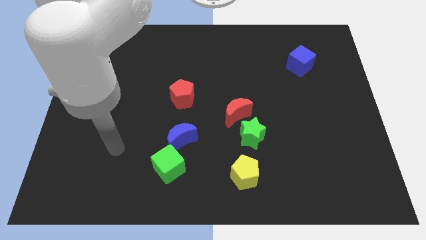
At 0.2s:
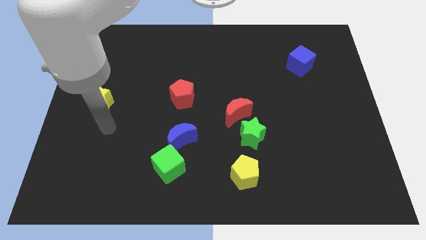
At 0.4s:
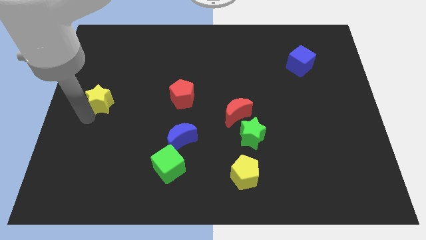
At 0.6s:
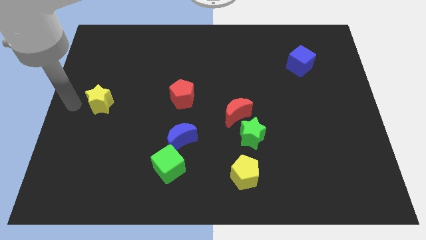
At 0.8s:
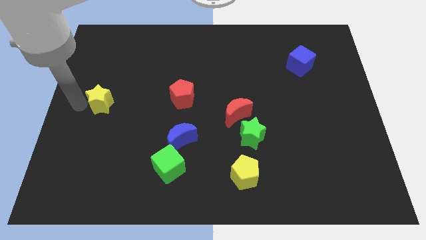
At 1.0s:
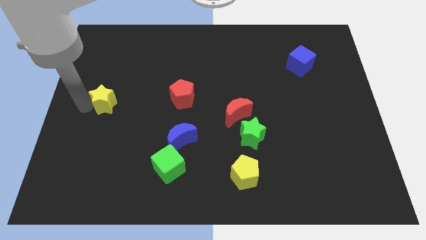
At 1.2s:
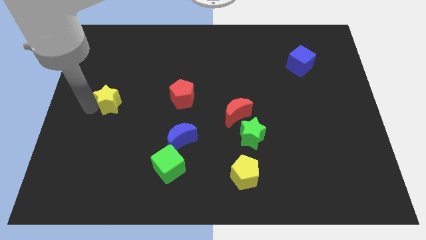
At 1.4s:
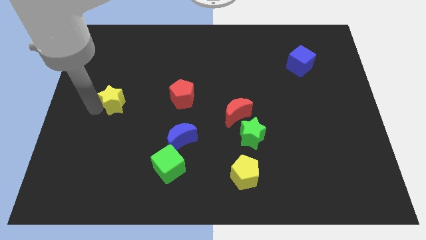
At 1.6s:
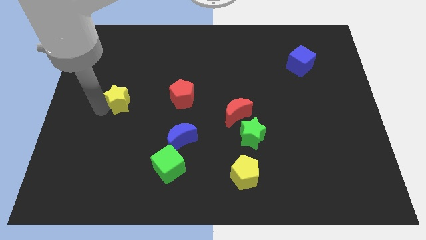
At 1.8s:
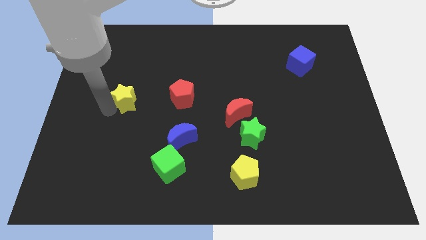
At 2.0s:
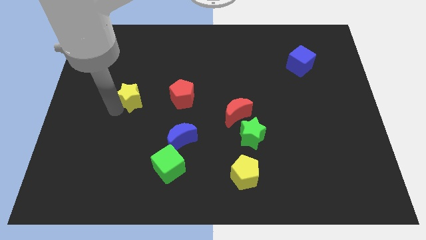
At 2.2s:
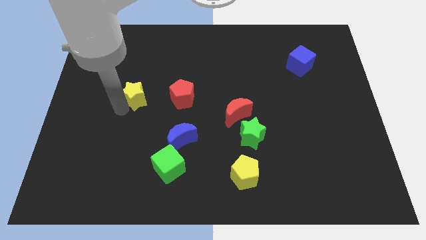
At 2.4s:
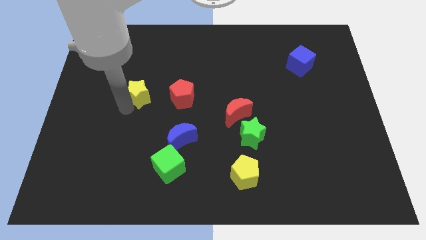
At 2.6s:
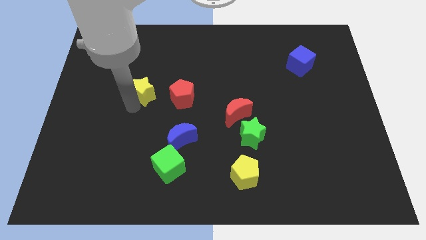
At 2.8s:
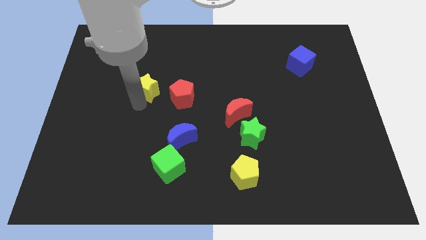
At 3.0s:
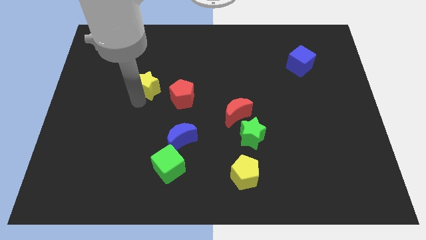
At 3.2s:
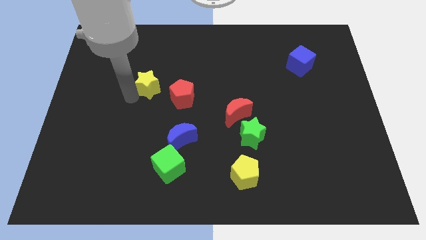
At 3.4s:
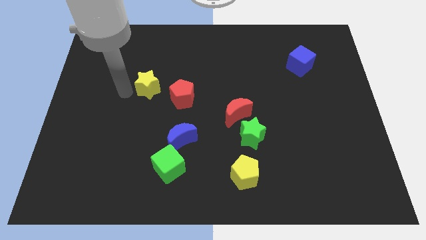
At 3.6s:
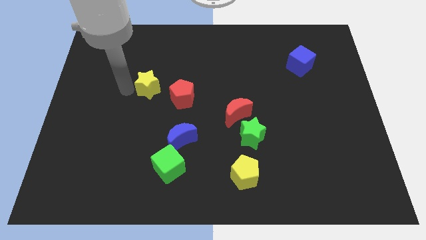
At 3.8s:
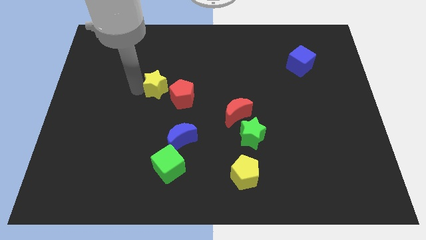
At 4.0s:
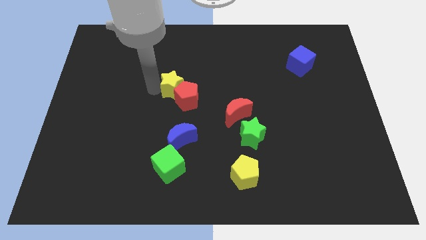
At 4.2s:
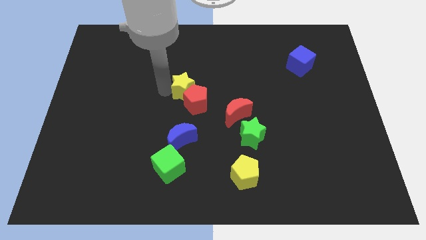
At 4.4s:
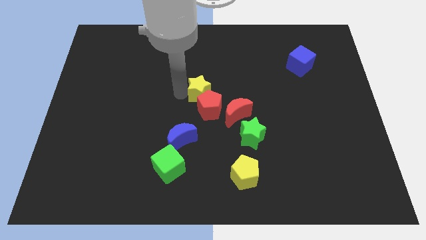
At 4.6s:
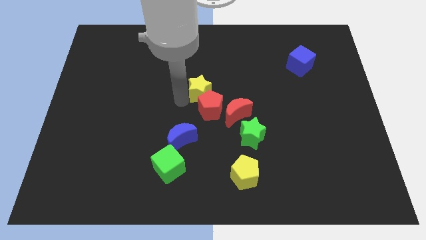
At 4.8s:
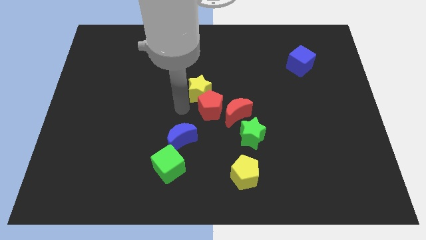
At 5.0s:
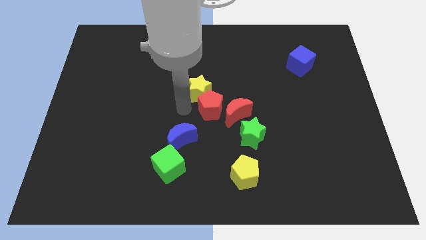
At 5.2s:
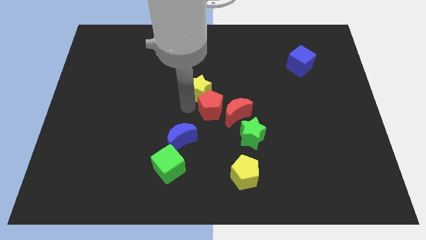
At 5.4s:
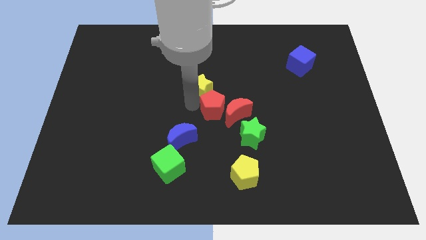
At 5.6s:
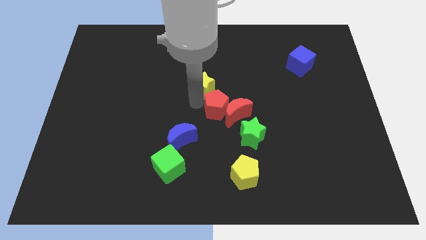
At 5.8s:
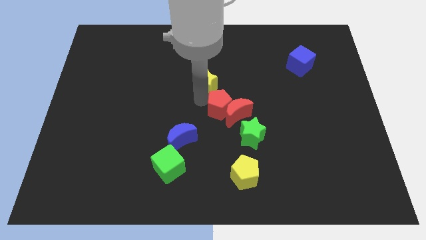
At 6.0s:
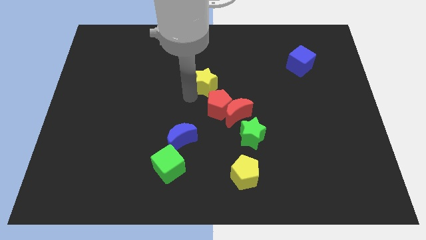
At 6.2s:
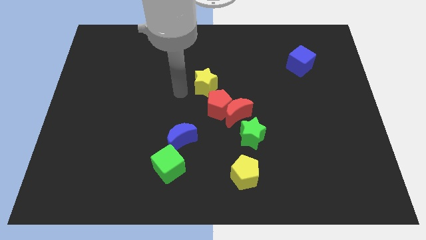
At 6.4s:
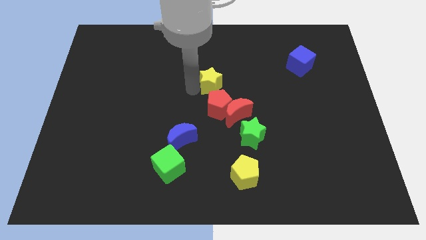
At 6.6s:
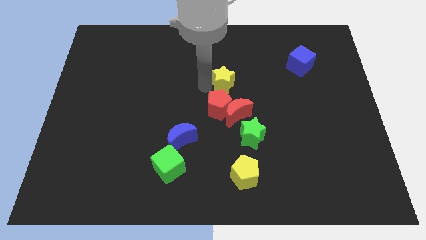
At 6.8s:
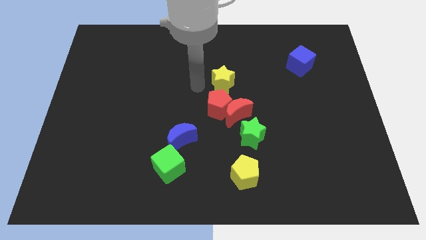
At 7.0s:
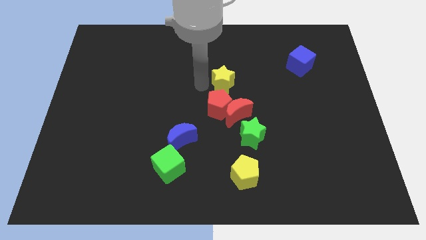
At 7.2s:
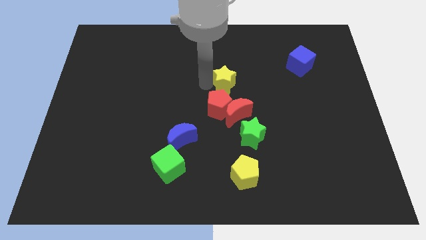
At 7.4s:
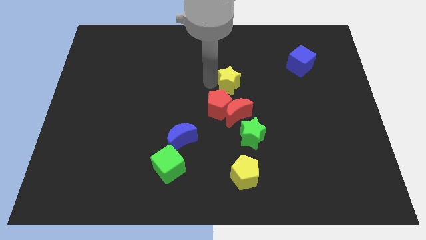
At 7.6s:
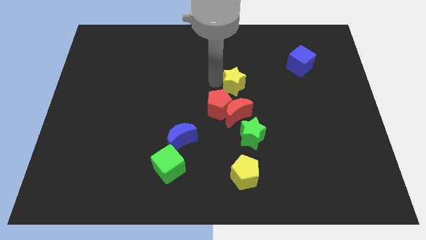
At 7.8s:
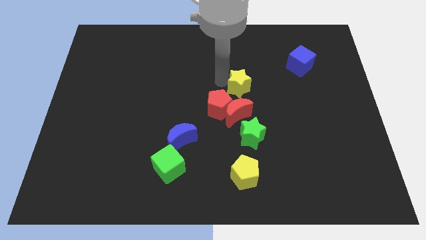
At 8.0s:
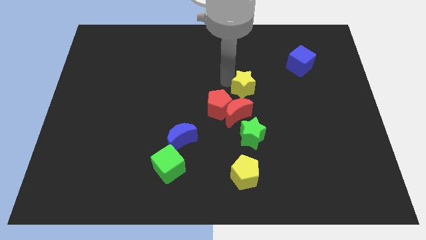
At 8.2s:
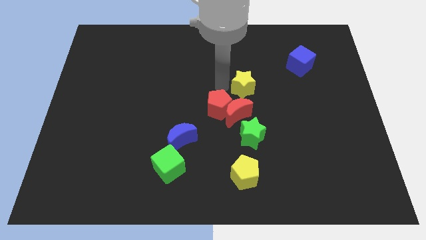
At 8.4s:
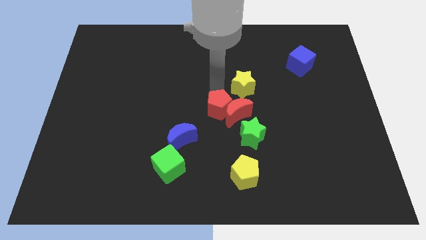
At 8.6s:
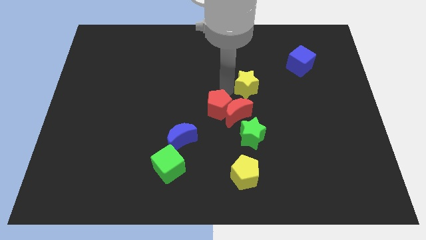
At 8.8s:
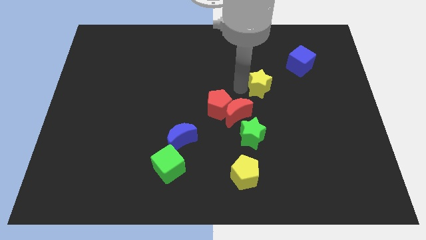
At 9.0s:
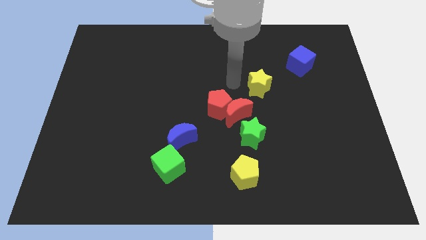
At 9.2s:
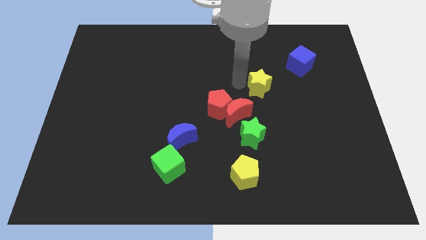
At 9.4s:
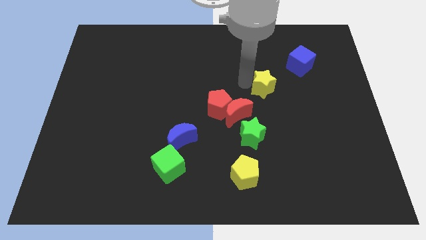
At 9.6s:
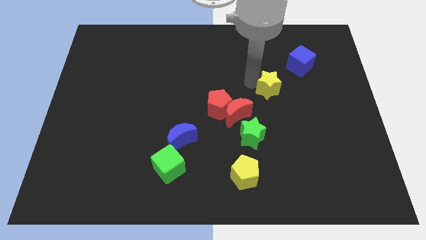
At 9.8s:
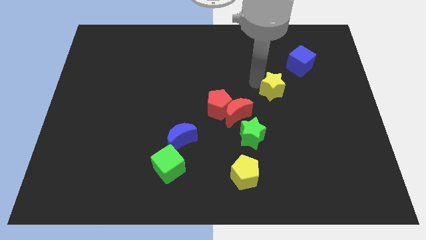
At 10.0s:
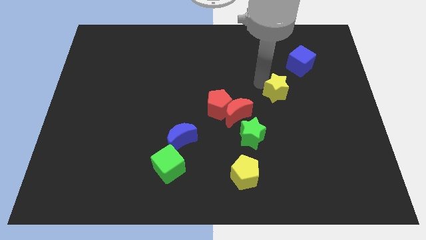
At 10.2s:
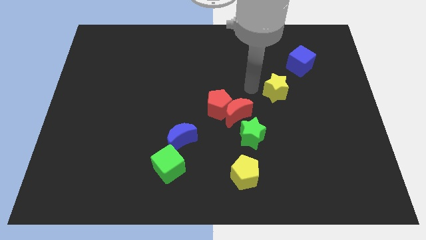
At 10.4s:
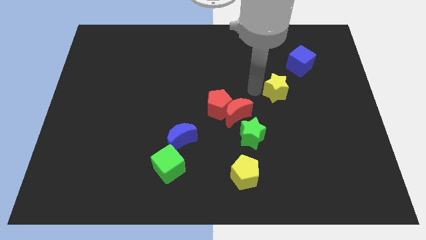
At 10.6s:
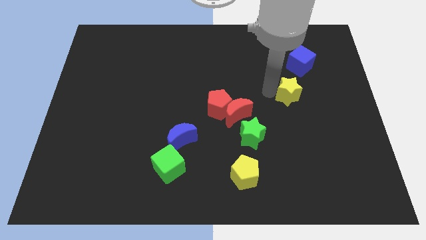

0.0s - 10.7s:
slide the yellow star to the bottom of the blue cube

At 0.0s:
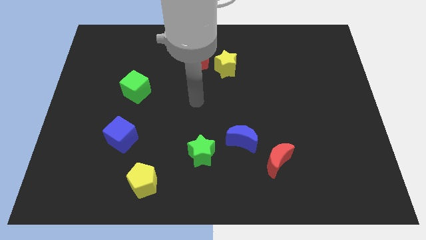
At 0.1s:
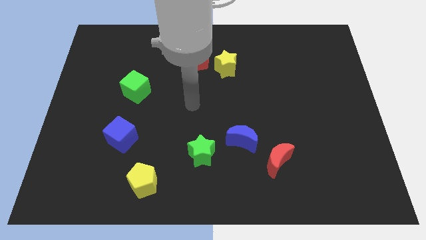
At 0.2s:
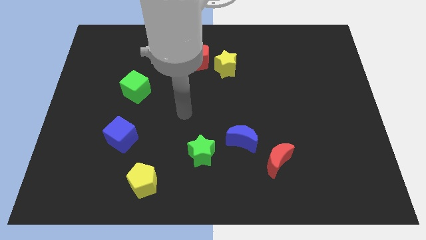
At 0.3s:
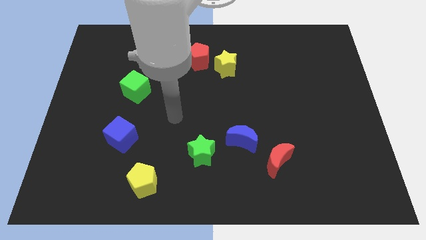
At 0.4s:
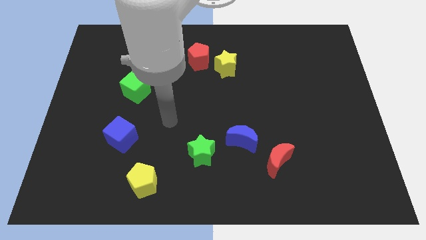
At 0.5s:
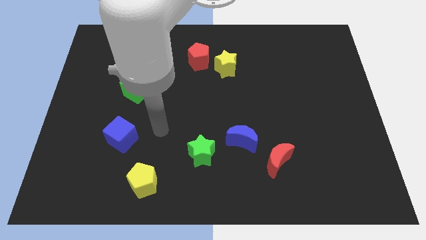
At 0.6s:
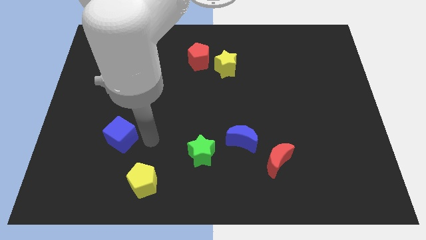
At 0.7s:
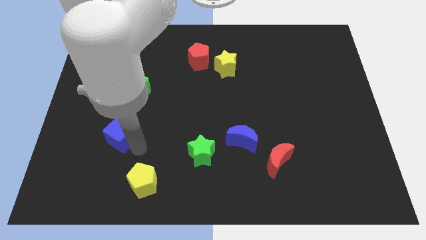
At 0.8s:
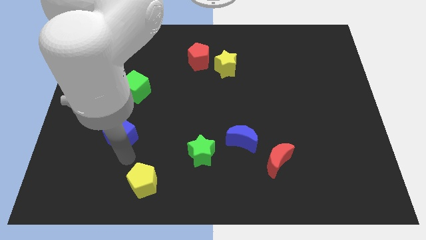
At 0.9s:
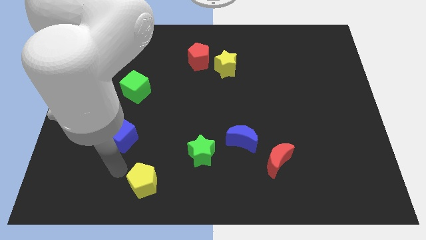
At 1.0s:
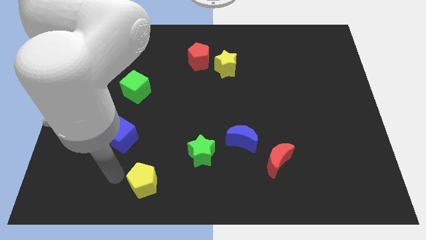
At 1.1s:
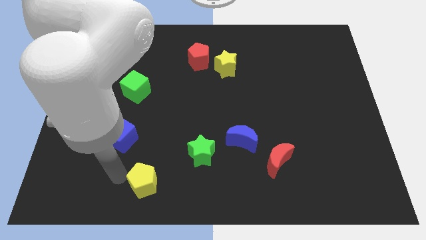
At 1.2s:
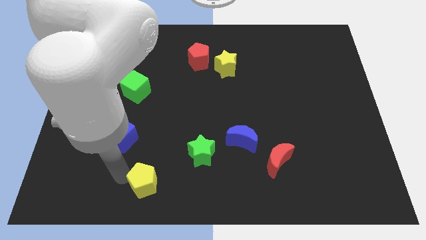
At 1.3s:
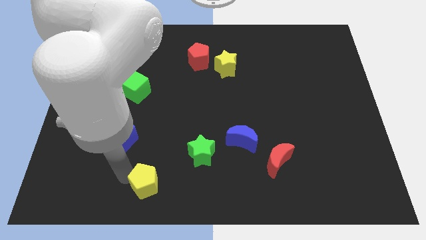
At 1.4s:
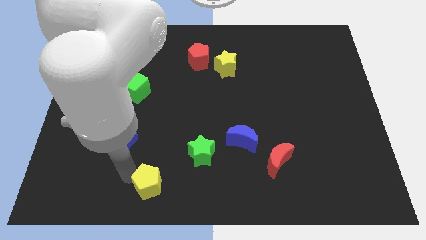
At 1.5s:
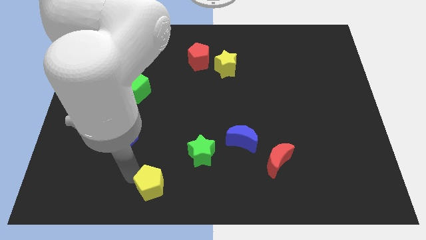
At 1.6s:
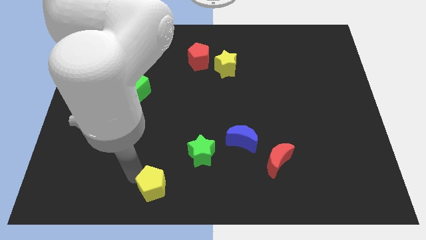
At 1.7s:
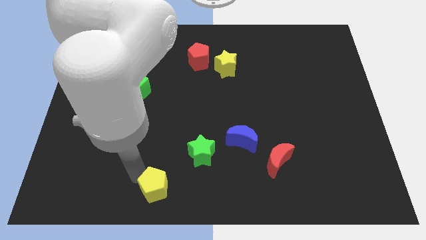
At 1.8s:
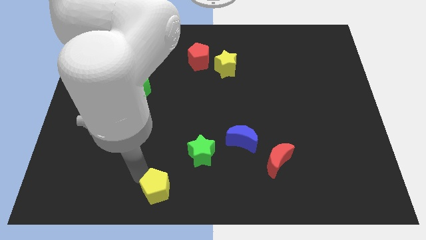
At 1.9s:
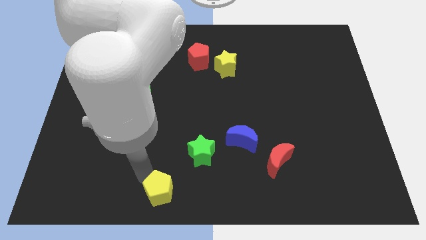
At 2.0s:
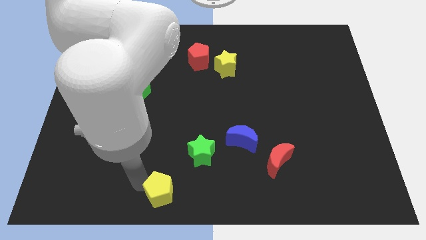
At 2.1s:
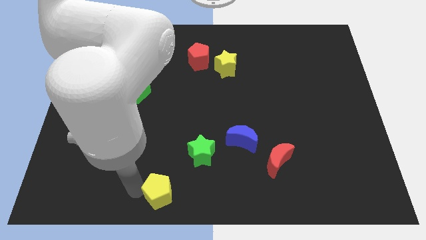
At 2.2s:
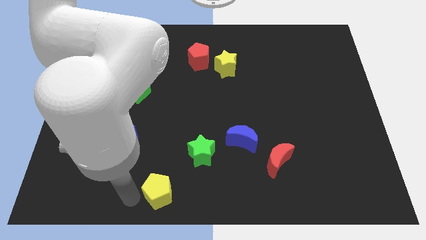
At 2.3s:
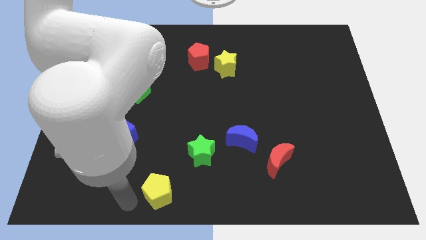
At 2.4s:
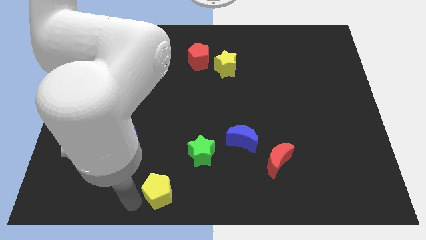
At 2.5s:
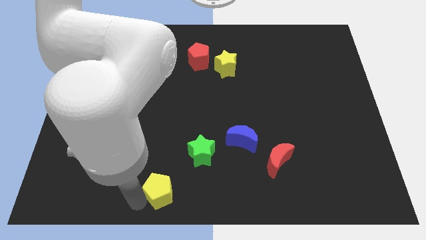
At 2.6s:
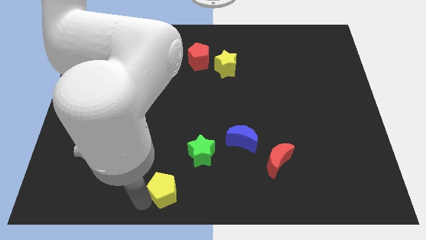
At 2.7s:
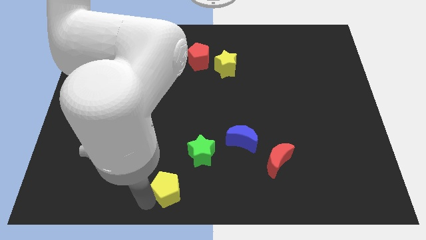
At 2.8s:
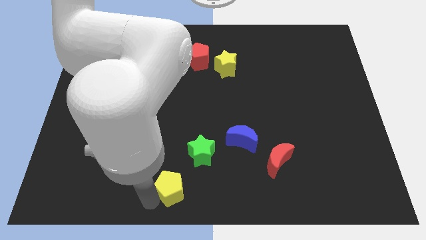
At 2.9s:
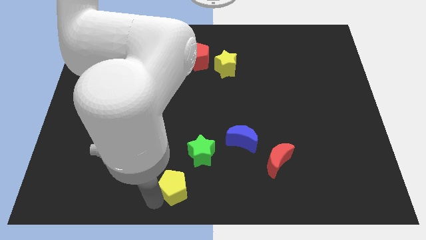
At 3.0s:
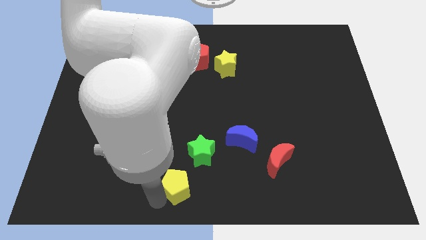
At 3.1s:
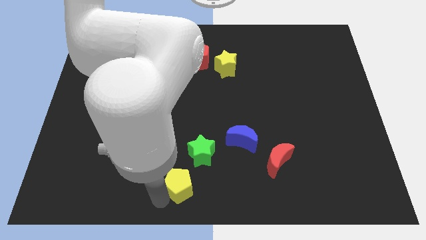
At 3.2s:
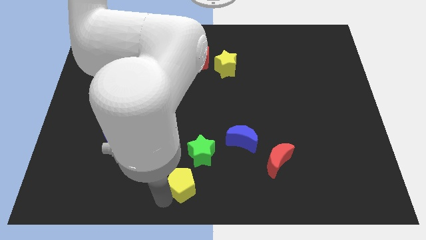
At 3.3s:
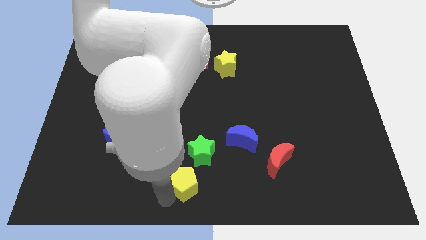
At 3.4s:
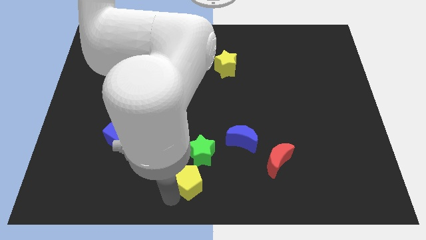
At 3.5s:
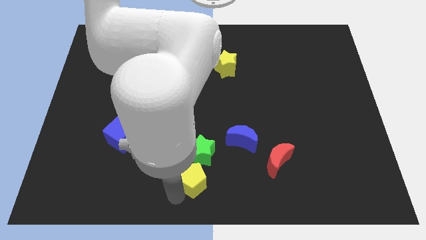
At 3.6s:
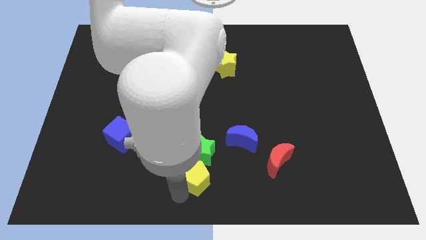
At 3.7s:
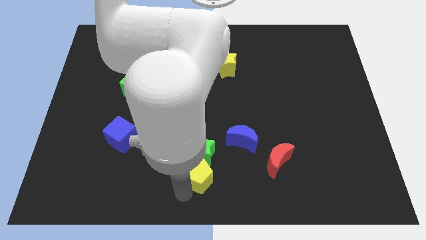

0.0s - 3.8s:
move the yellow pentagon to the bottom left side of the blue moon
